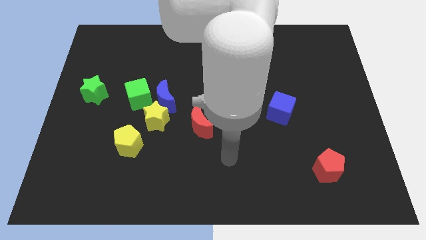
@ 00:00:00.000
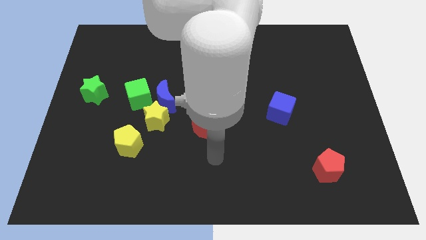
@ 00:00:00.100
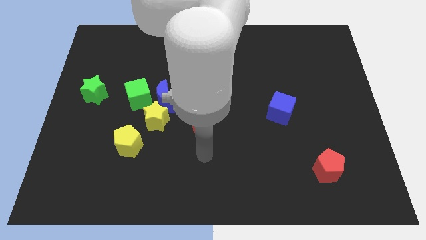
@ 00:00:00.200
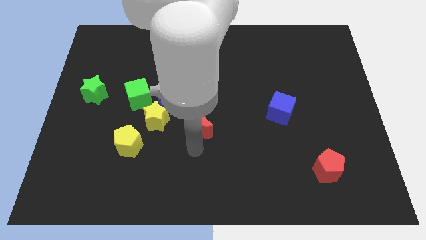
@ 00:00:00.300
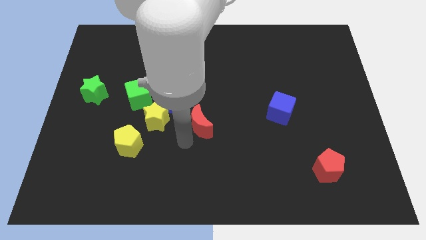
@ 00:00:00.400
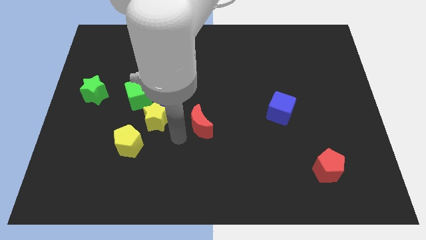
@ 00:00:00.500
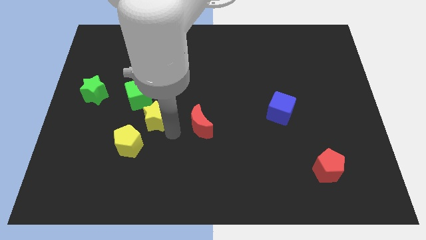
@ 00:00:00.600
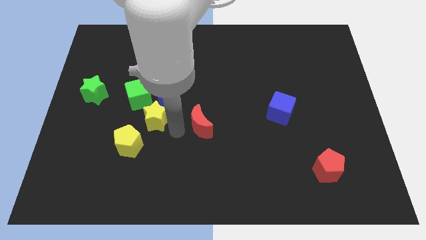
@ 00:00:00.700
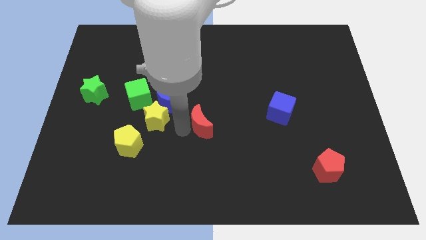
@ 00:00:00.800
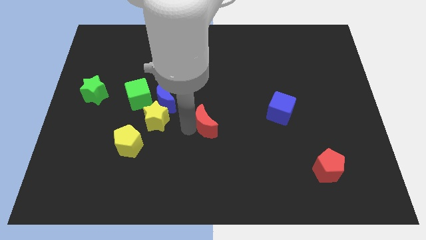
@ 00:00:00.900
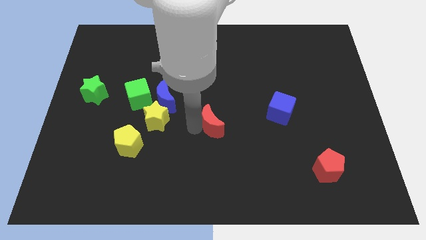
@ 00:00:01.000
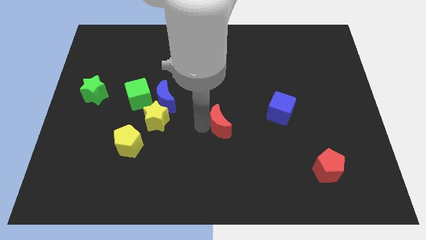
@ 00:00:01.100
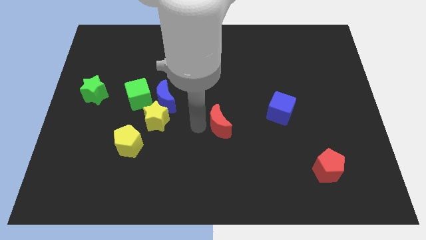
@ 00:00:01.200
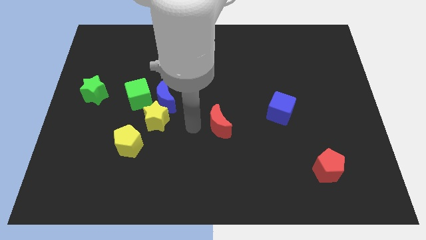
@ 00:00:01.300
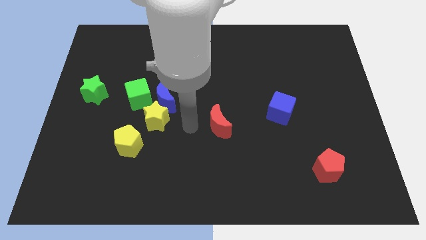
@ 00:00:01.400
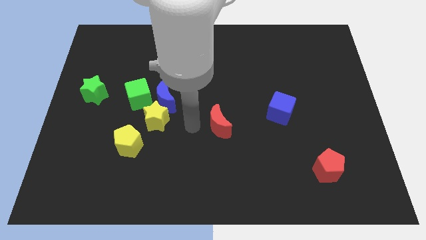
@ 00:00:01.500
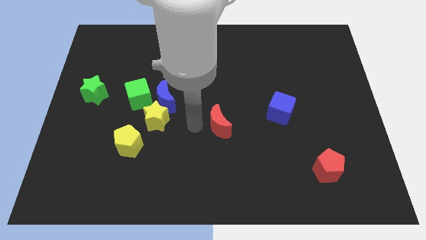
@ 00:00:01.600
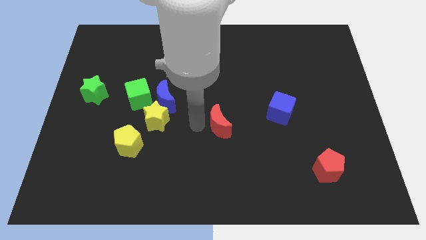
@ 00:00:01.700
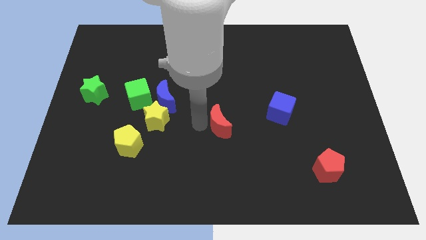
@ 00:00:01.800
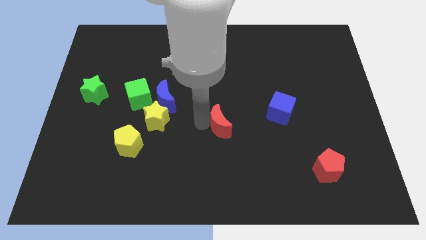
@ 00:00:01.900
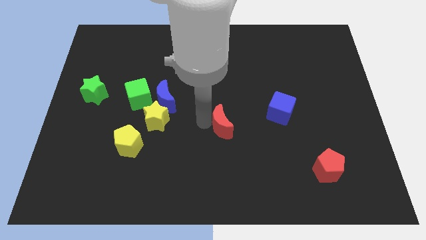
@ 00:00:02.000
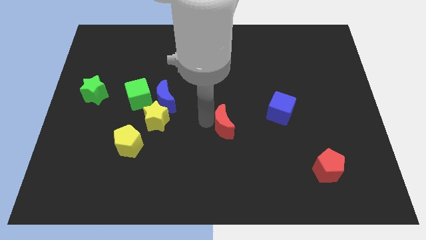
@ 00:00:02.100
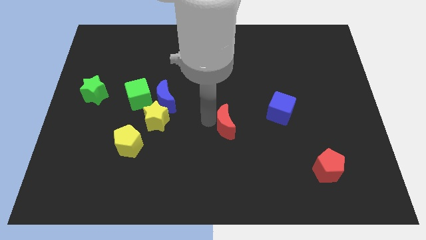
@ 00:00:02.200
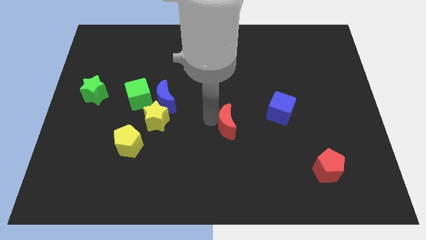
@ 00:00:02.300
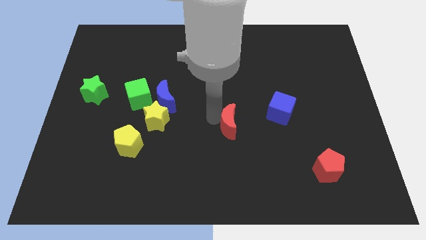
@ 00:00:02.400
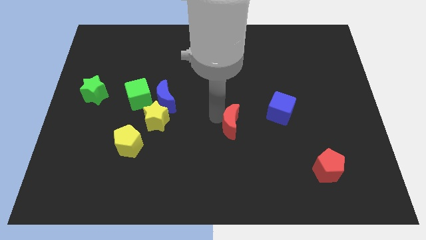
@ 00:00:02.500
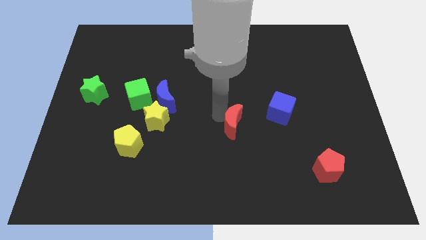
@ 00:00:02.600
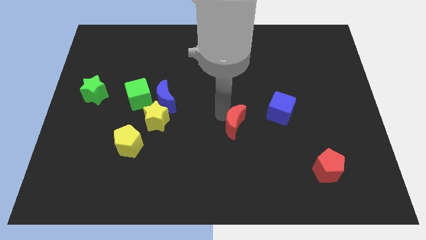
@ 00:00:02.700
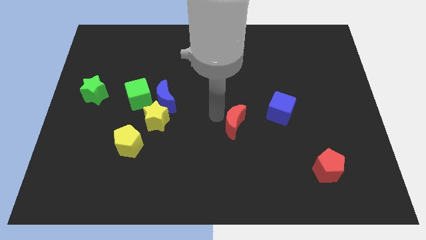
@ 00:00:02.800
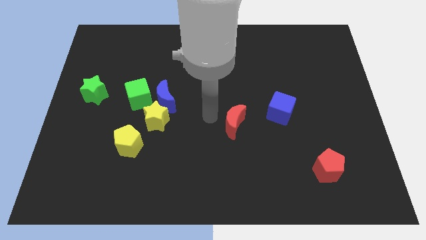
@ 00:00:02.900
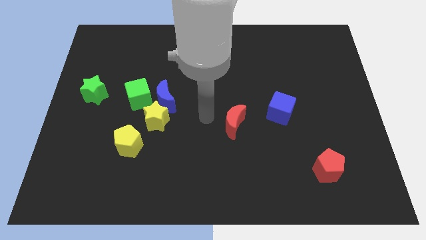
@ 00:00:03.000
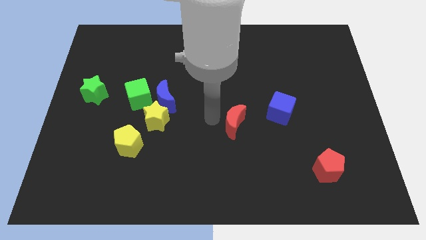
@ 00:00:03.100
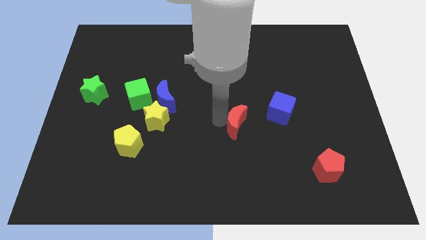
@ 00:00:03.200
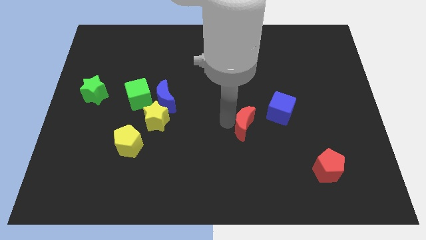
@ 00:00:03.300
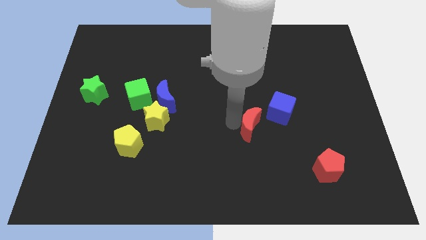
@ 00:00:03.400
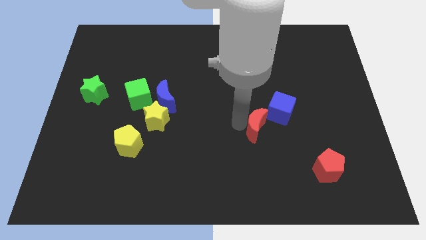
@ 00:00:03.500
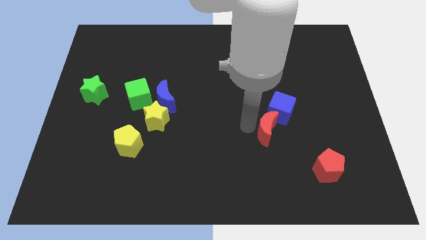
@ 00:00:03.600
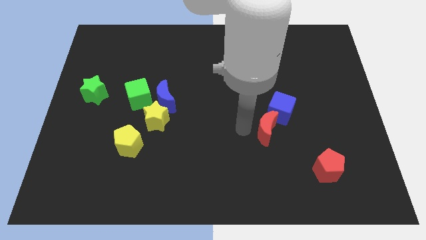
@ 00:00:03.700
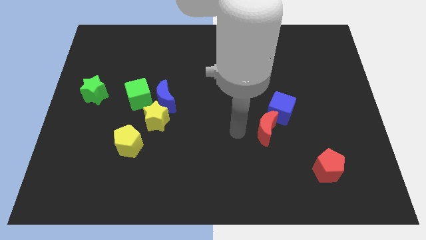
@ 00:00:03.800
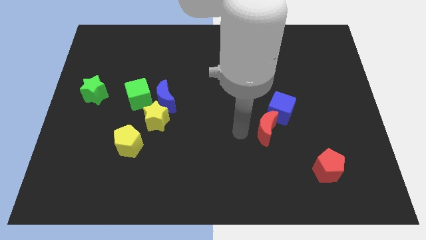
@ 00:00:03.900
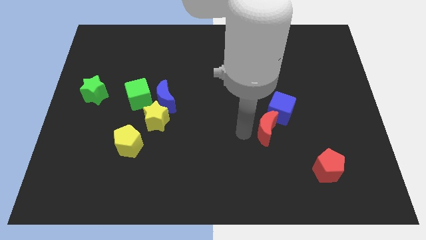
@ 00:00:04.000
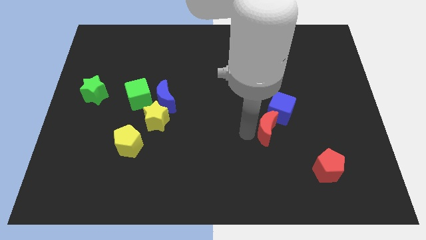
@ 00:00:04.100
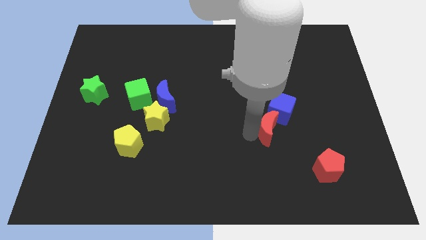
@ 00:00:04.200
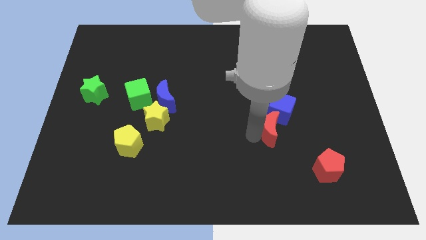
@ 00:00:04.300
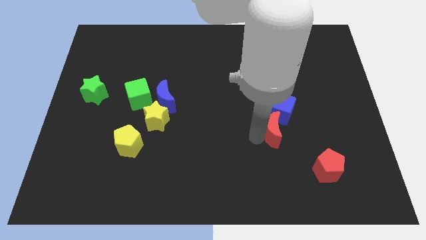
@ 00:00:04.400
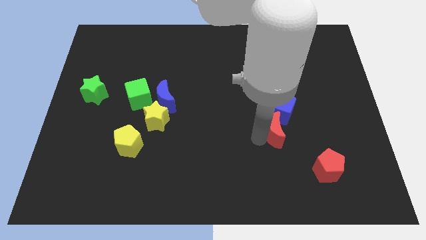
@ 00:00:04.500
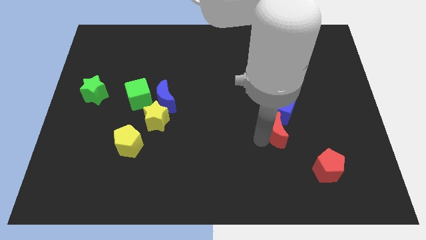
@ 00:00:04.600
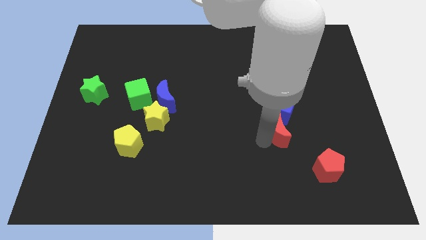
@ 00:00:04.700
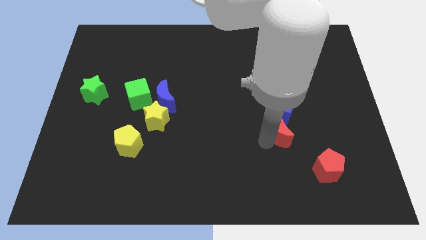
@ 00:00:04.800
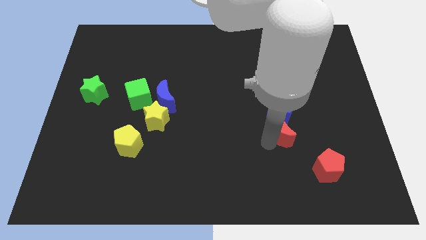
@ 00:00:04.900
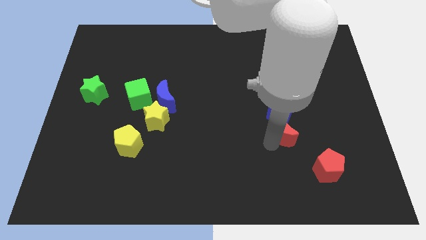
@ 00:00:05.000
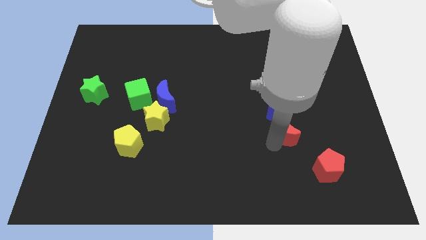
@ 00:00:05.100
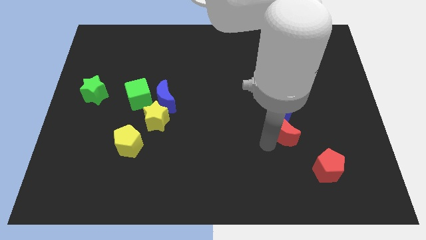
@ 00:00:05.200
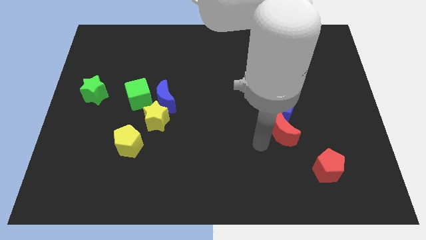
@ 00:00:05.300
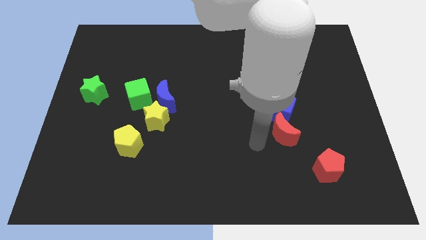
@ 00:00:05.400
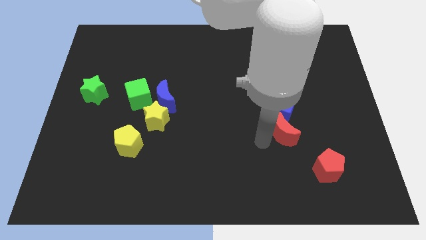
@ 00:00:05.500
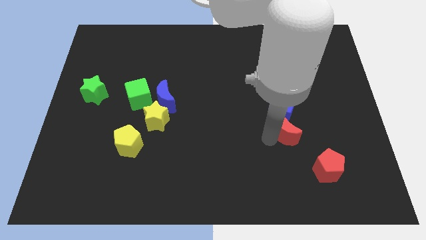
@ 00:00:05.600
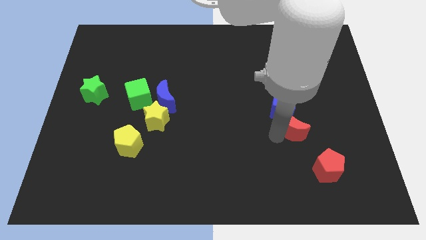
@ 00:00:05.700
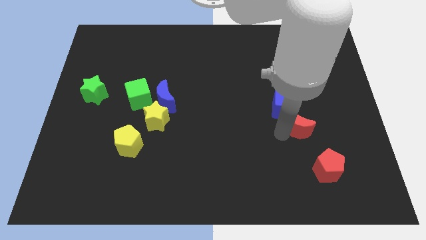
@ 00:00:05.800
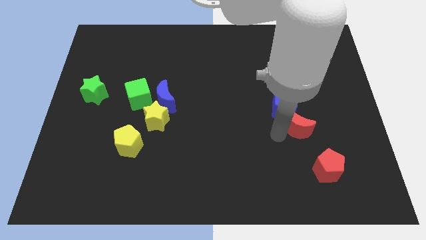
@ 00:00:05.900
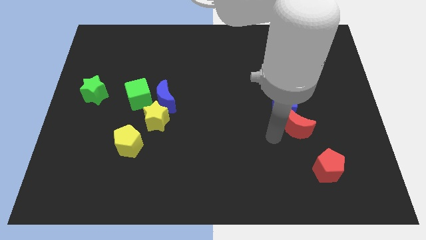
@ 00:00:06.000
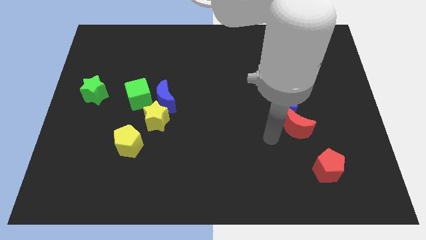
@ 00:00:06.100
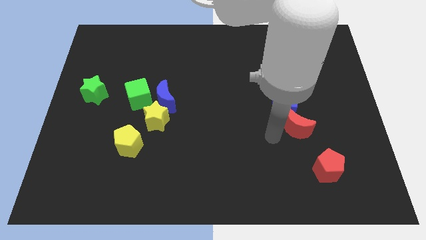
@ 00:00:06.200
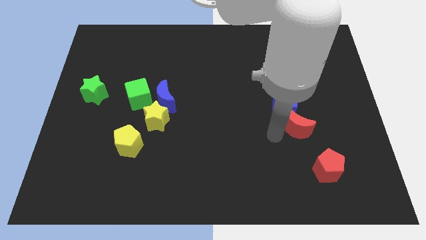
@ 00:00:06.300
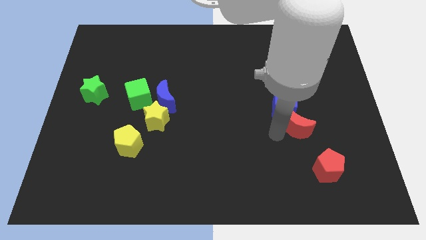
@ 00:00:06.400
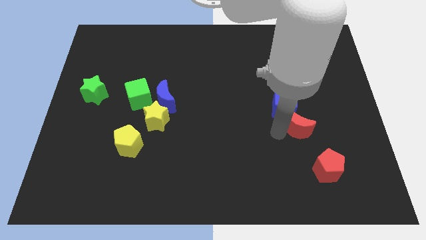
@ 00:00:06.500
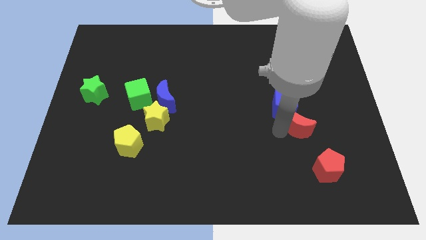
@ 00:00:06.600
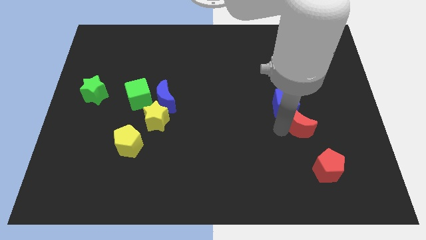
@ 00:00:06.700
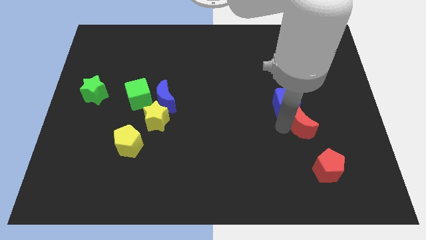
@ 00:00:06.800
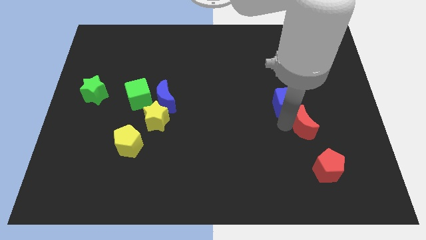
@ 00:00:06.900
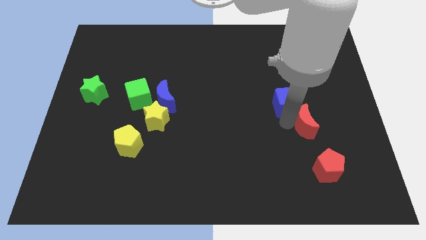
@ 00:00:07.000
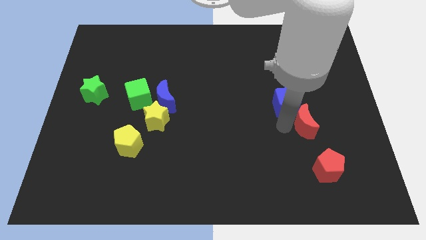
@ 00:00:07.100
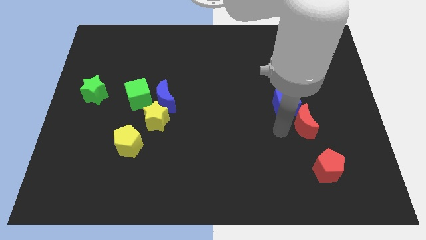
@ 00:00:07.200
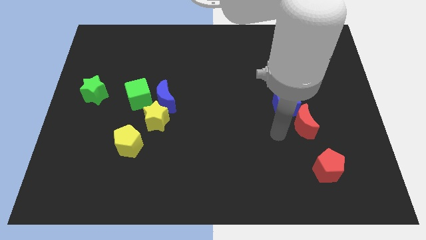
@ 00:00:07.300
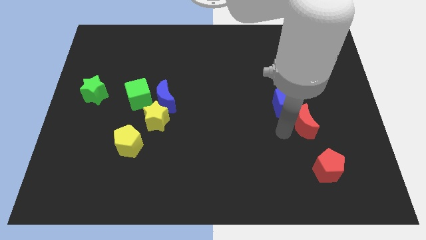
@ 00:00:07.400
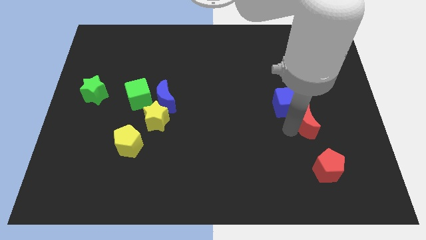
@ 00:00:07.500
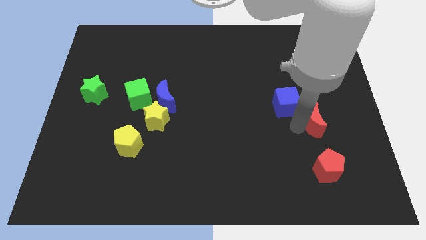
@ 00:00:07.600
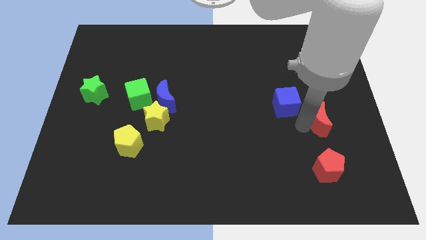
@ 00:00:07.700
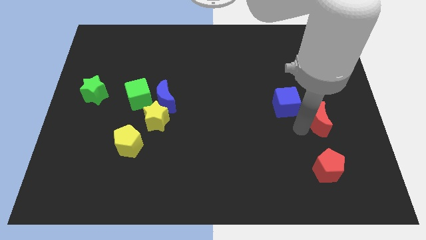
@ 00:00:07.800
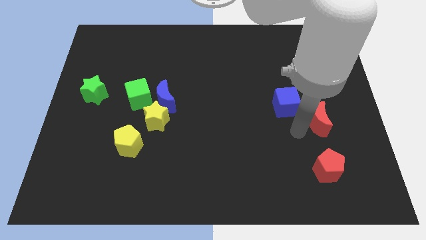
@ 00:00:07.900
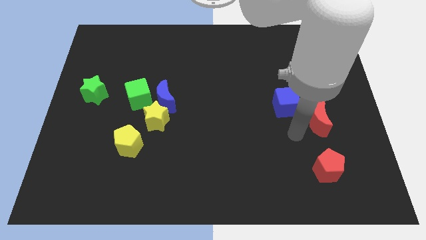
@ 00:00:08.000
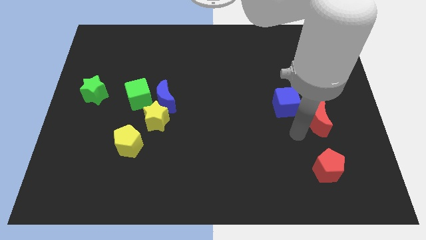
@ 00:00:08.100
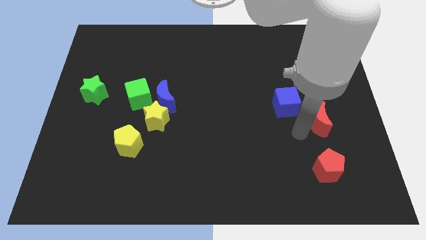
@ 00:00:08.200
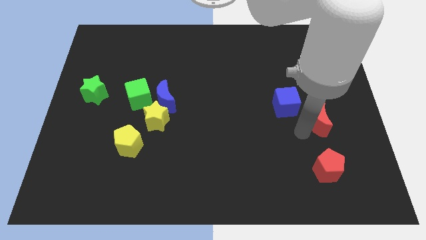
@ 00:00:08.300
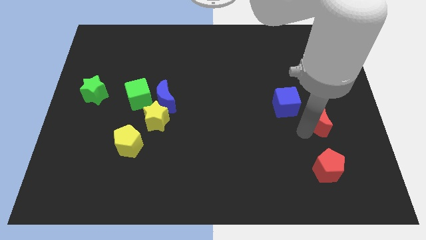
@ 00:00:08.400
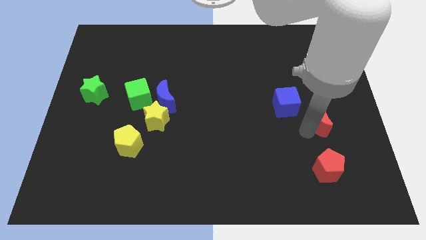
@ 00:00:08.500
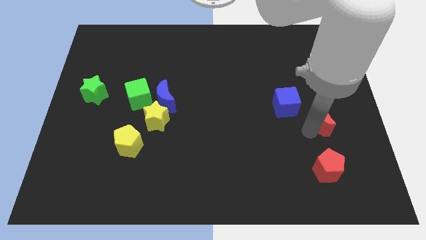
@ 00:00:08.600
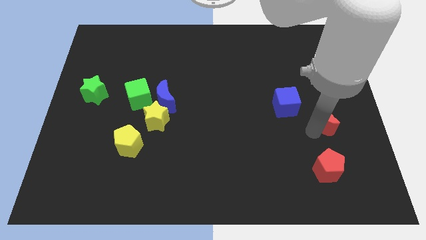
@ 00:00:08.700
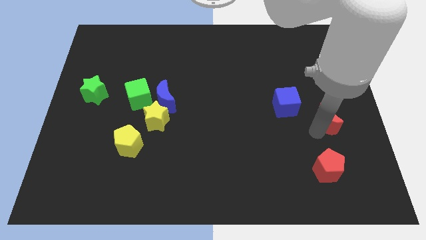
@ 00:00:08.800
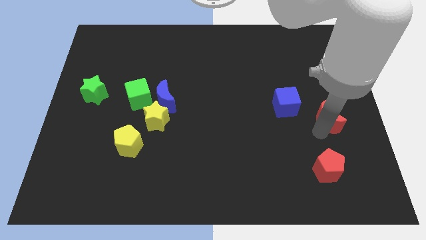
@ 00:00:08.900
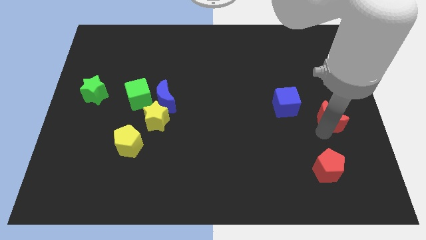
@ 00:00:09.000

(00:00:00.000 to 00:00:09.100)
slide the red moon to the center right
